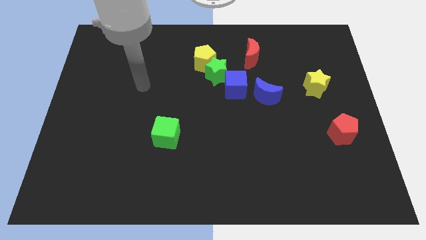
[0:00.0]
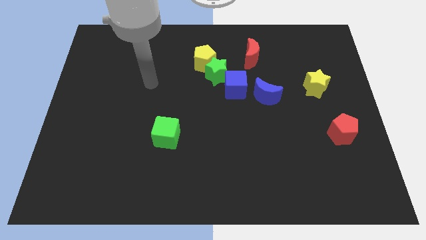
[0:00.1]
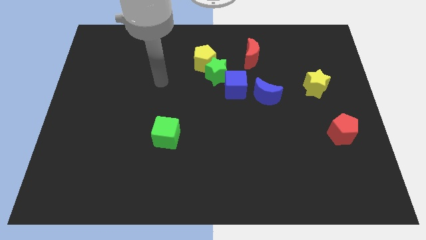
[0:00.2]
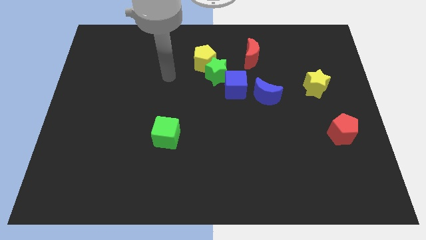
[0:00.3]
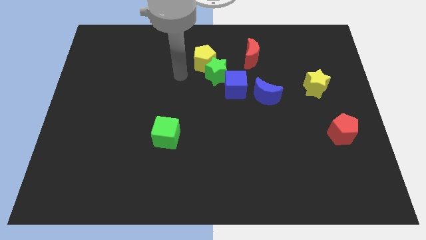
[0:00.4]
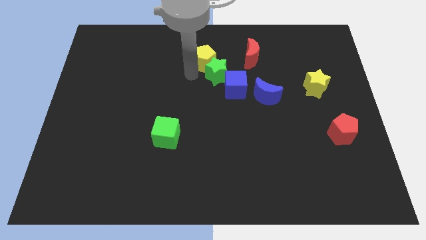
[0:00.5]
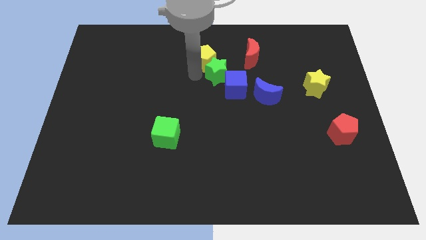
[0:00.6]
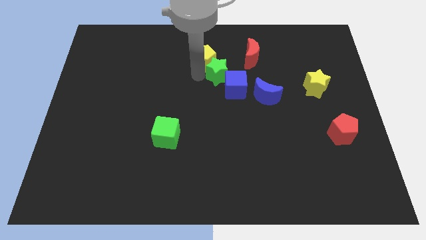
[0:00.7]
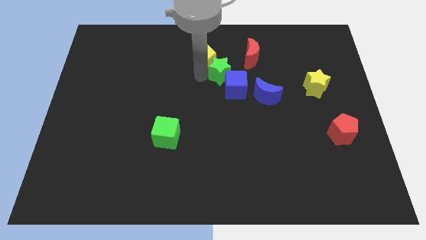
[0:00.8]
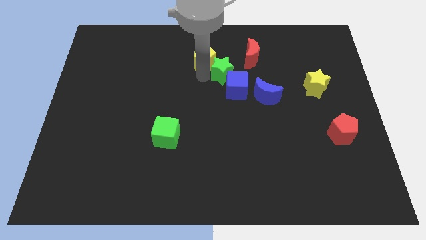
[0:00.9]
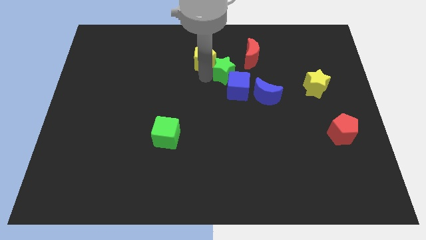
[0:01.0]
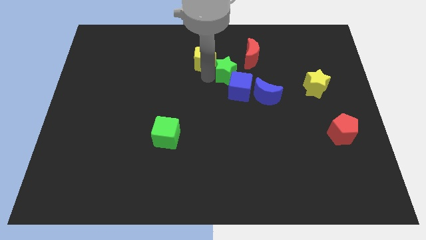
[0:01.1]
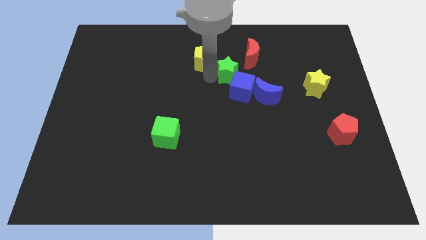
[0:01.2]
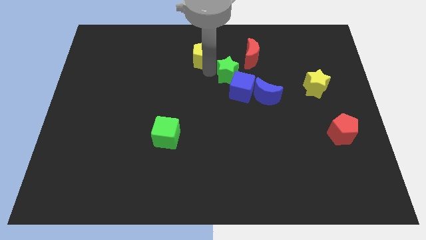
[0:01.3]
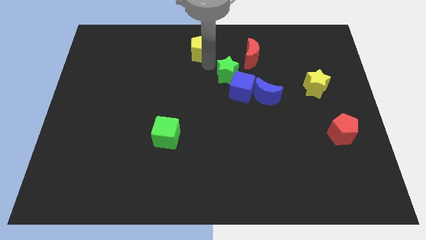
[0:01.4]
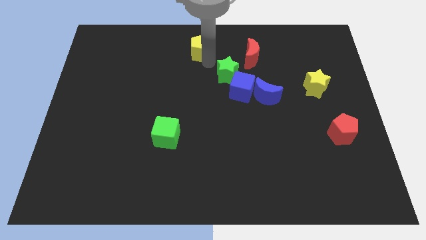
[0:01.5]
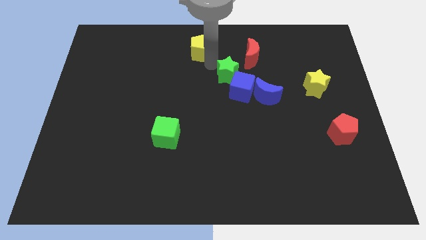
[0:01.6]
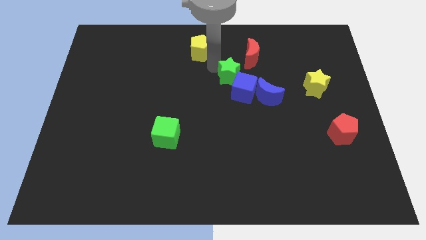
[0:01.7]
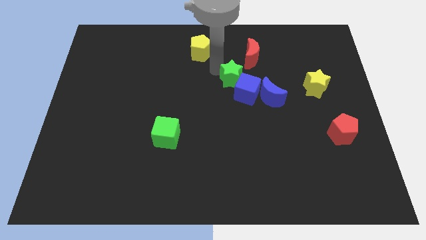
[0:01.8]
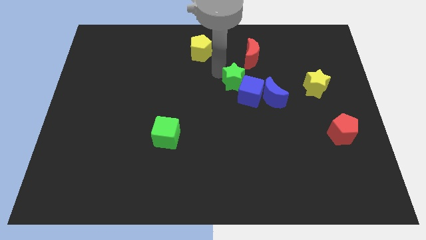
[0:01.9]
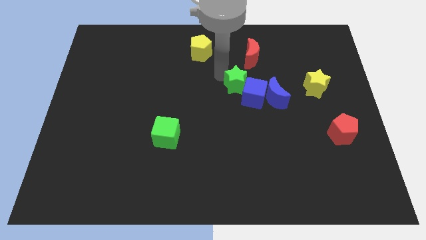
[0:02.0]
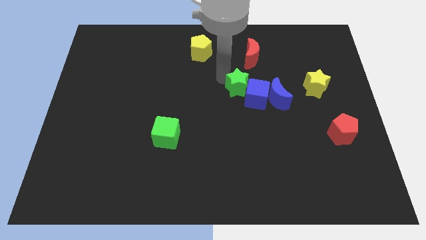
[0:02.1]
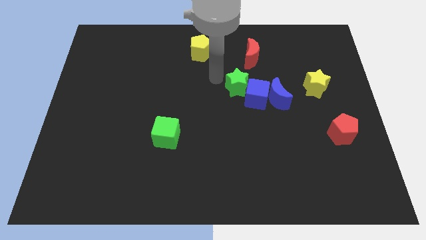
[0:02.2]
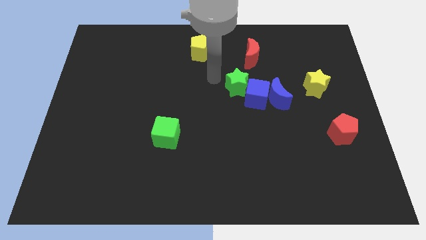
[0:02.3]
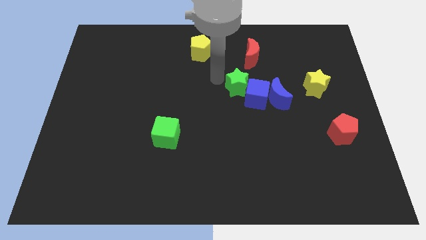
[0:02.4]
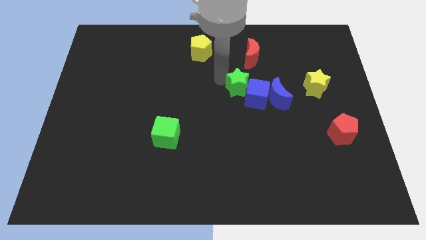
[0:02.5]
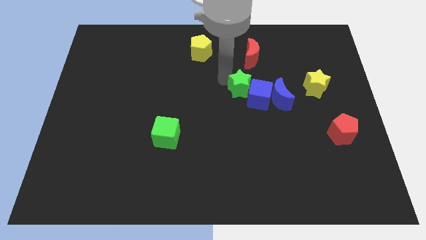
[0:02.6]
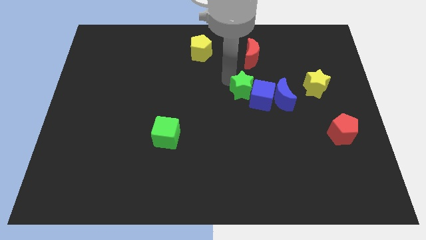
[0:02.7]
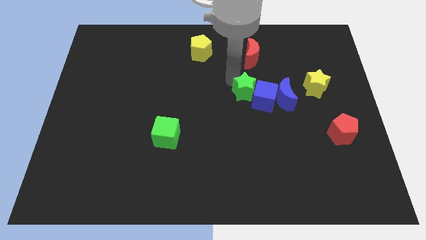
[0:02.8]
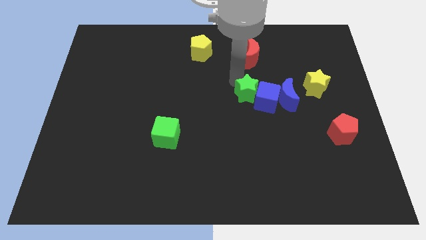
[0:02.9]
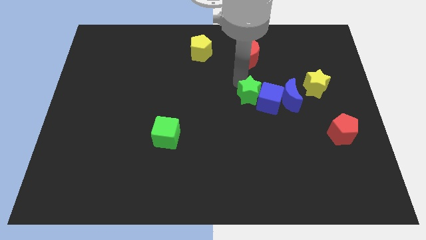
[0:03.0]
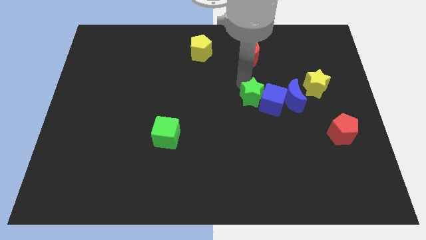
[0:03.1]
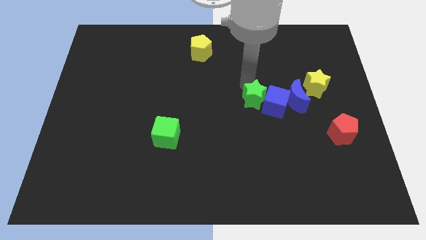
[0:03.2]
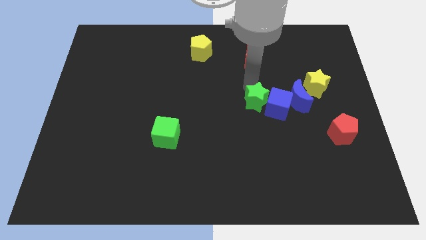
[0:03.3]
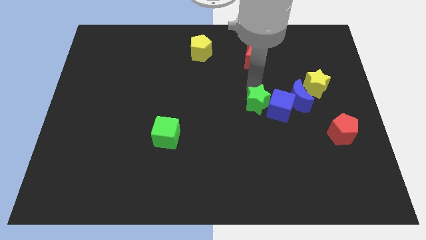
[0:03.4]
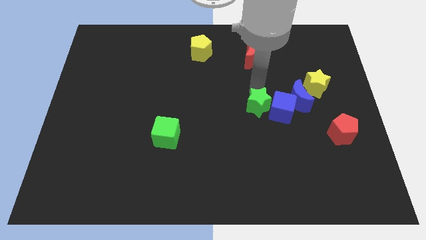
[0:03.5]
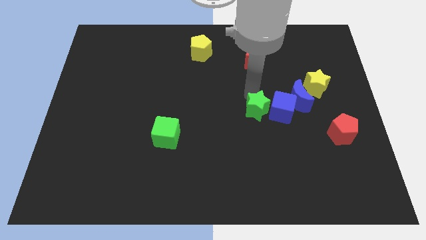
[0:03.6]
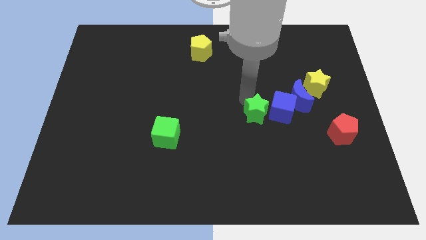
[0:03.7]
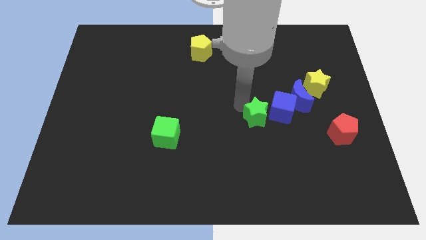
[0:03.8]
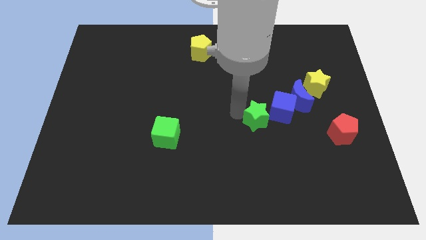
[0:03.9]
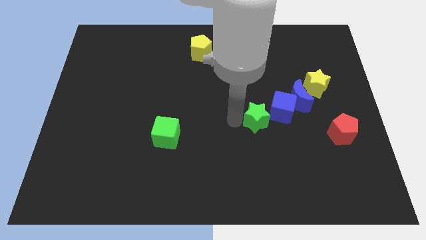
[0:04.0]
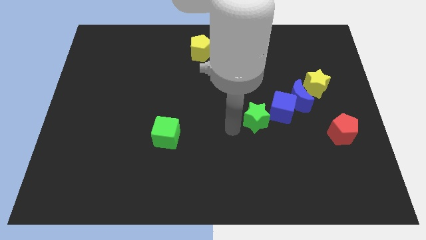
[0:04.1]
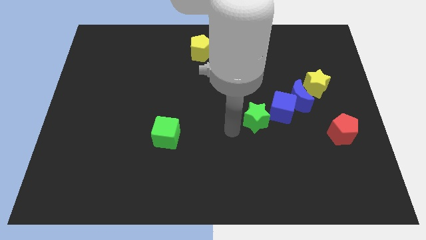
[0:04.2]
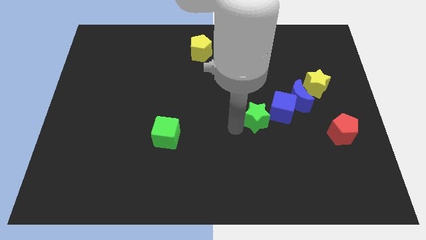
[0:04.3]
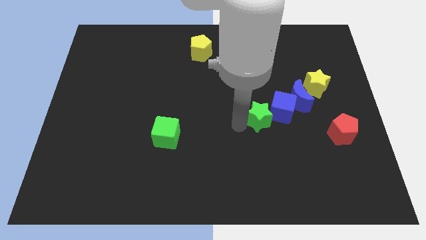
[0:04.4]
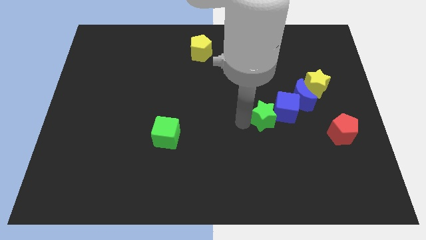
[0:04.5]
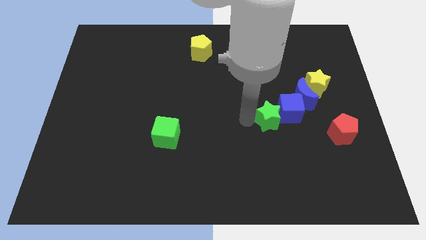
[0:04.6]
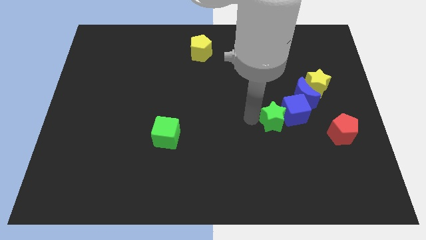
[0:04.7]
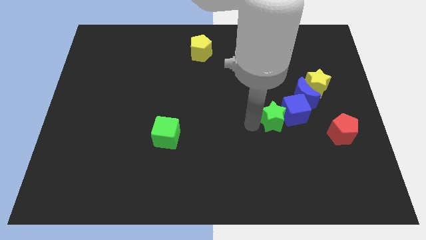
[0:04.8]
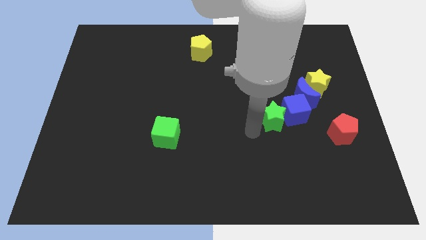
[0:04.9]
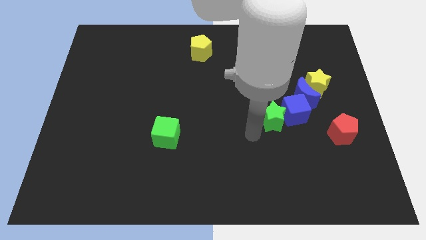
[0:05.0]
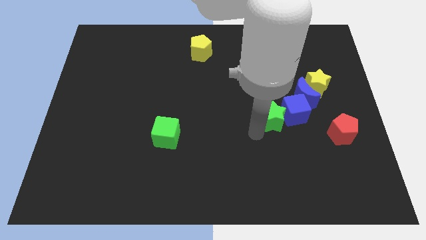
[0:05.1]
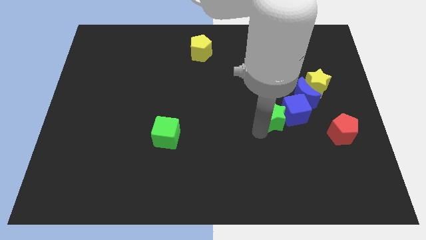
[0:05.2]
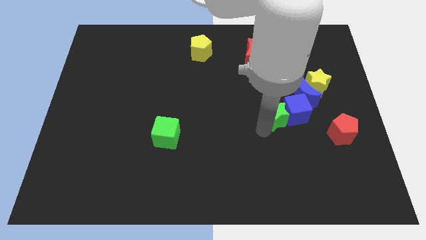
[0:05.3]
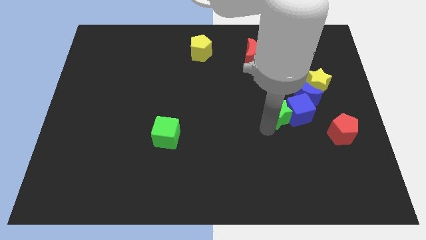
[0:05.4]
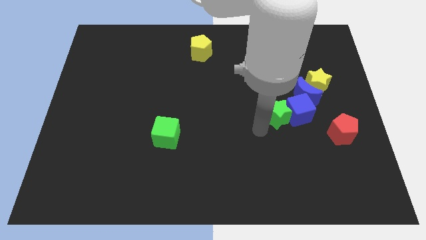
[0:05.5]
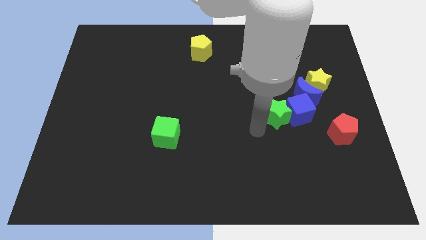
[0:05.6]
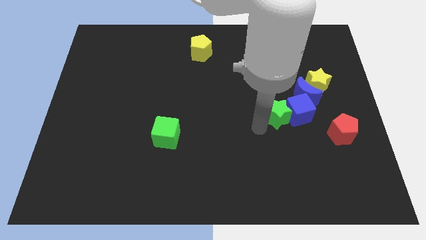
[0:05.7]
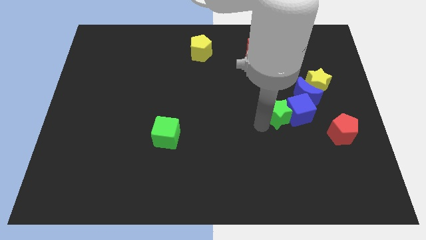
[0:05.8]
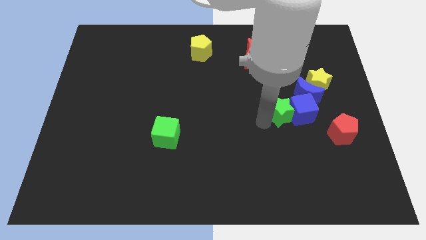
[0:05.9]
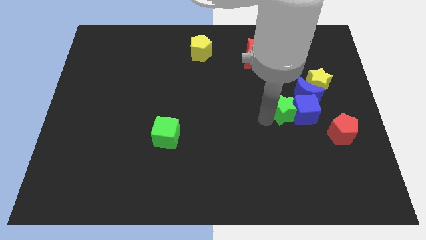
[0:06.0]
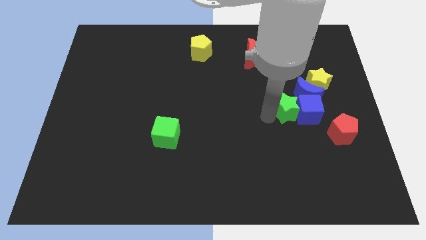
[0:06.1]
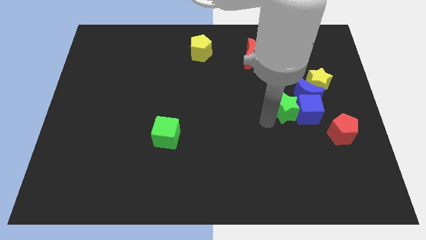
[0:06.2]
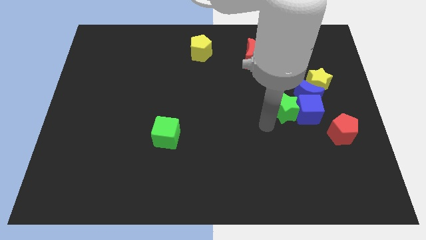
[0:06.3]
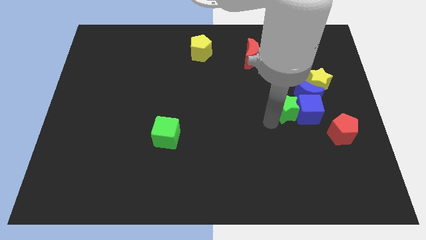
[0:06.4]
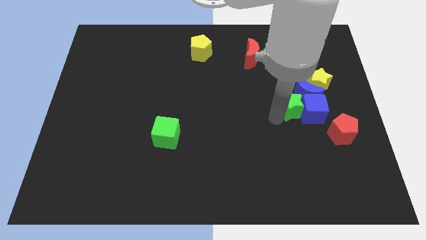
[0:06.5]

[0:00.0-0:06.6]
slide the green star to the blue moon
